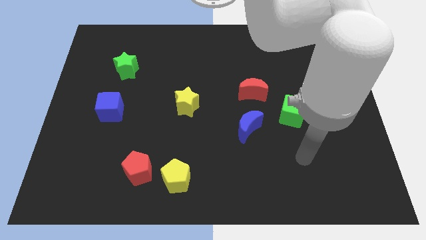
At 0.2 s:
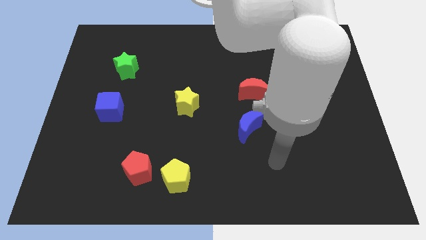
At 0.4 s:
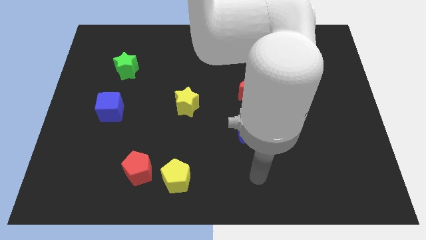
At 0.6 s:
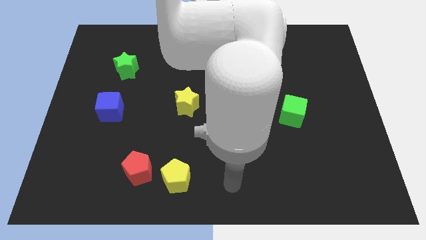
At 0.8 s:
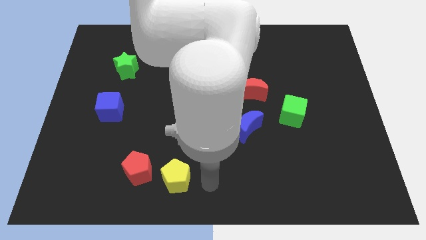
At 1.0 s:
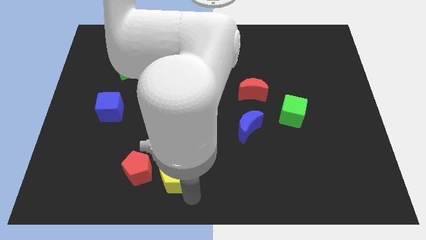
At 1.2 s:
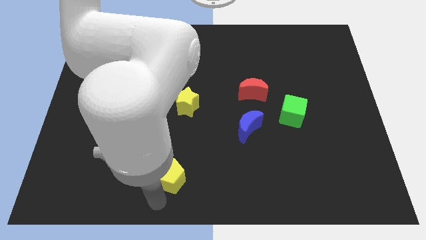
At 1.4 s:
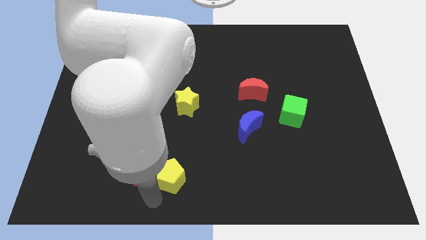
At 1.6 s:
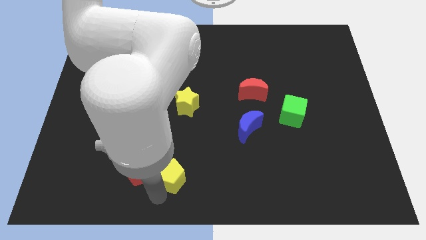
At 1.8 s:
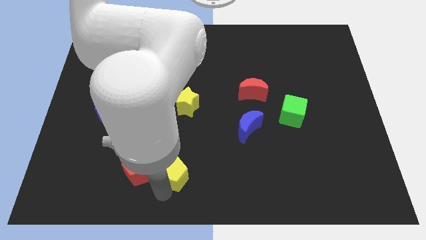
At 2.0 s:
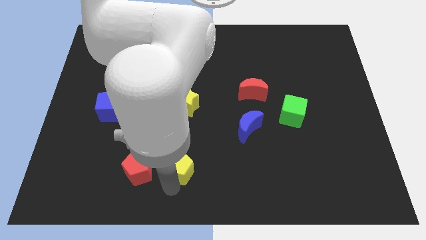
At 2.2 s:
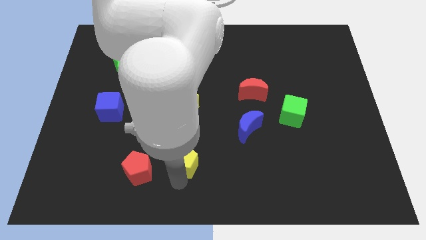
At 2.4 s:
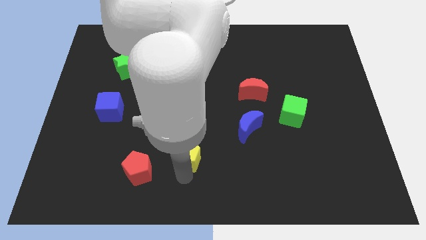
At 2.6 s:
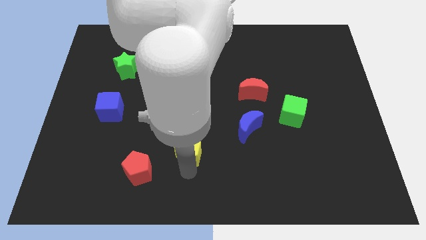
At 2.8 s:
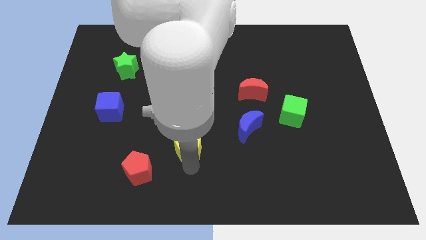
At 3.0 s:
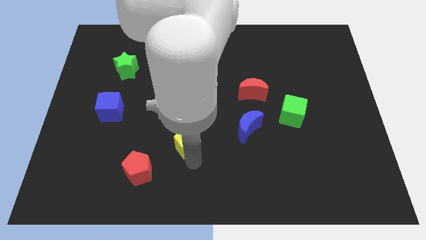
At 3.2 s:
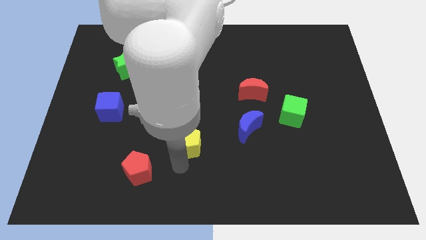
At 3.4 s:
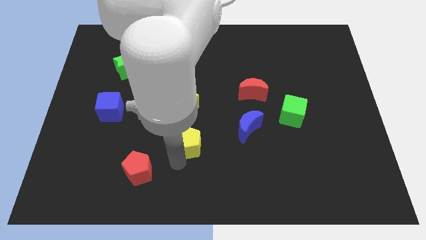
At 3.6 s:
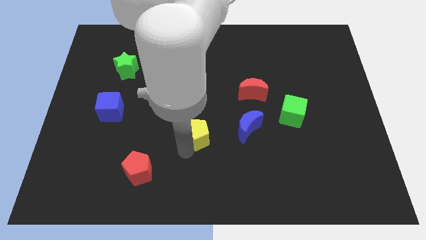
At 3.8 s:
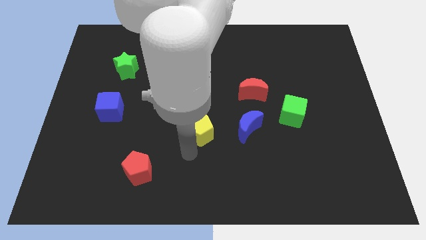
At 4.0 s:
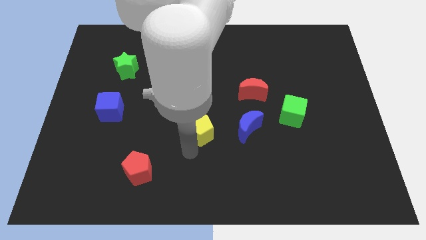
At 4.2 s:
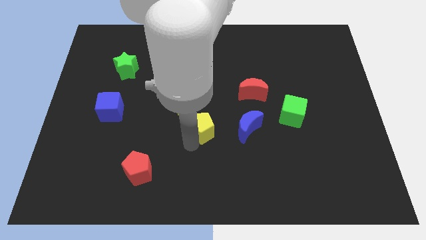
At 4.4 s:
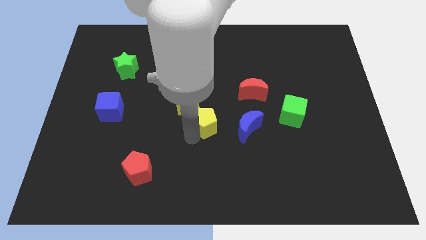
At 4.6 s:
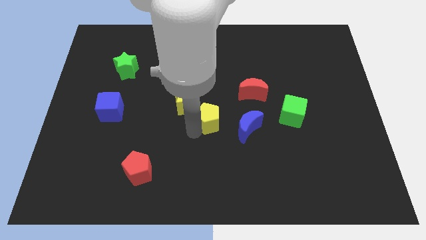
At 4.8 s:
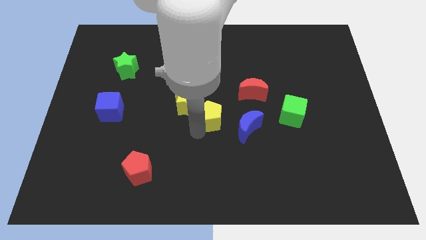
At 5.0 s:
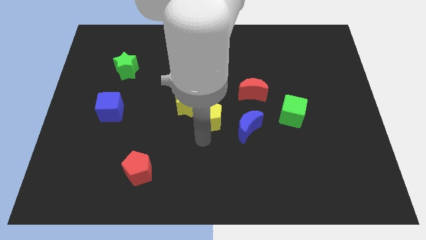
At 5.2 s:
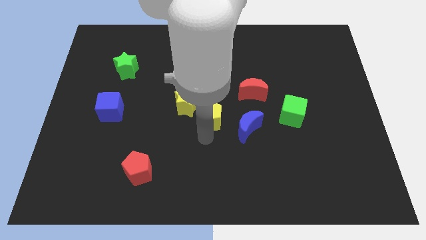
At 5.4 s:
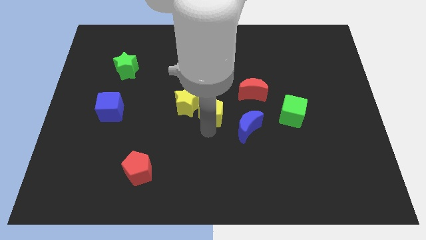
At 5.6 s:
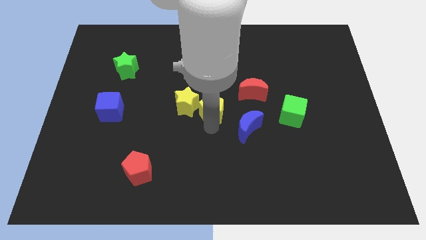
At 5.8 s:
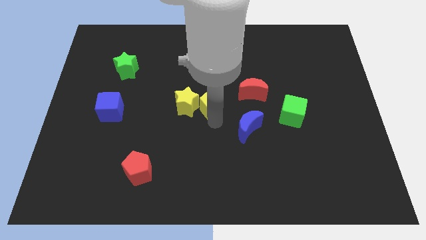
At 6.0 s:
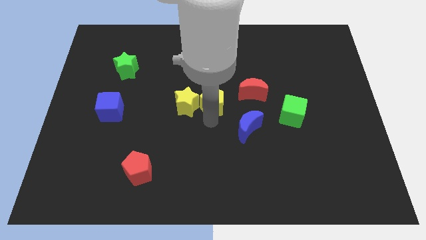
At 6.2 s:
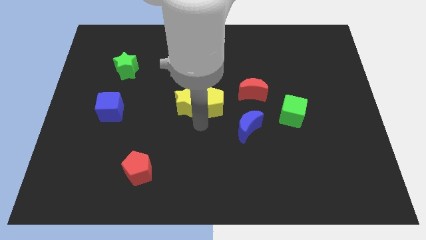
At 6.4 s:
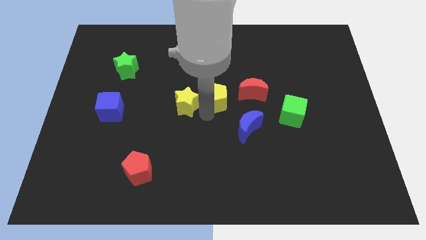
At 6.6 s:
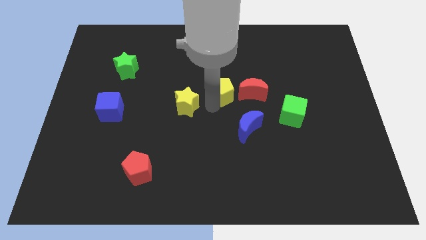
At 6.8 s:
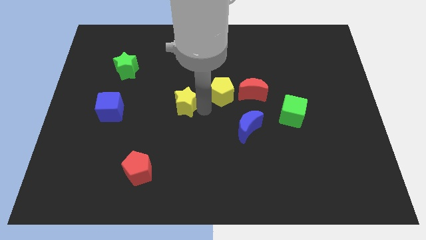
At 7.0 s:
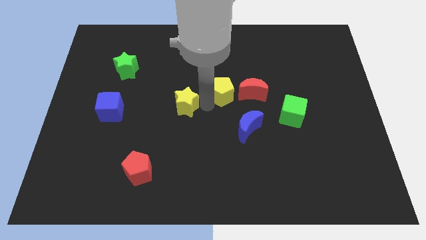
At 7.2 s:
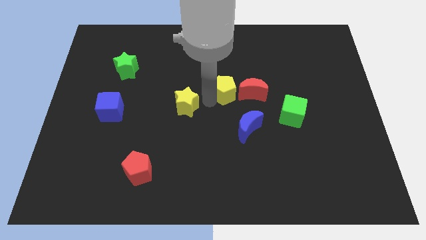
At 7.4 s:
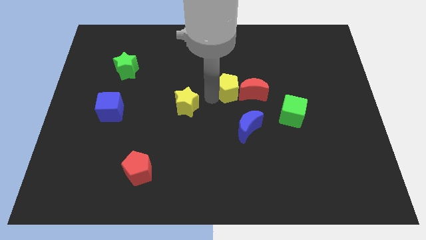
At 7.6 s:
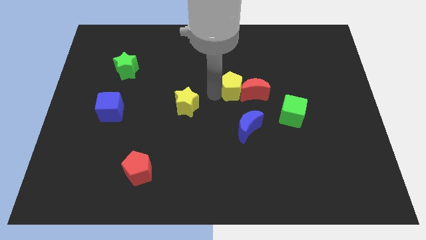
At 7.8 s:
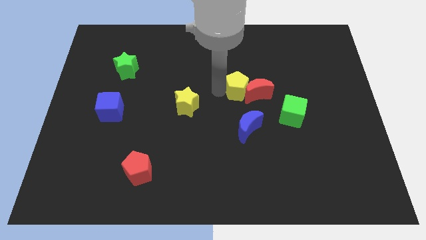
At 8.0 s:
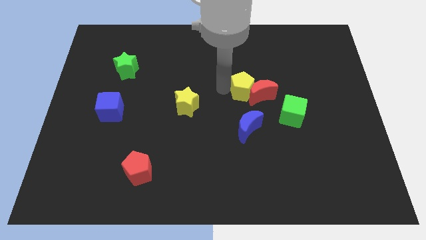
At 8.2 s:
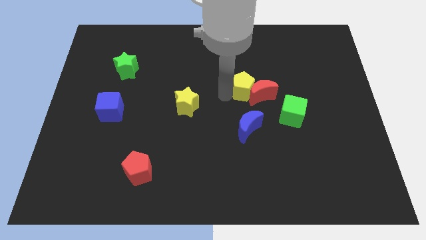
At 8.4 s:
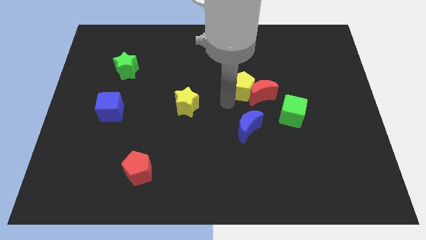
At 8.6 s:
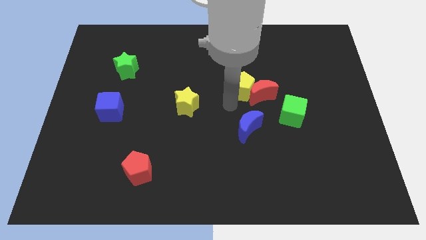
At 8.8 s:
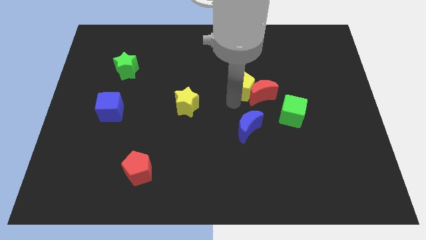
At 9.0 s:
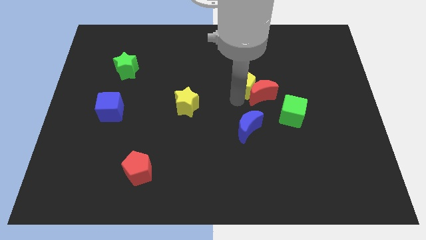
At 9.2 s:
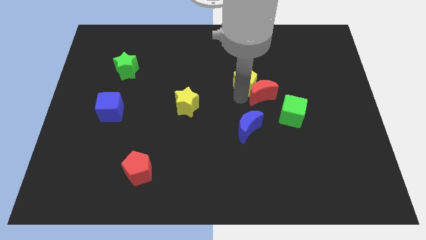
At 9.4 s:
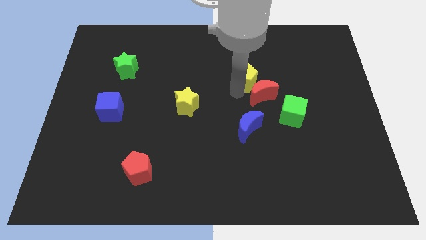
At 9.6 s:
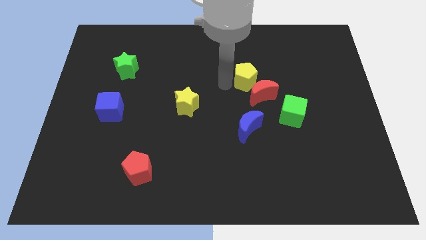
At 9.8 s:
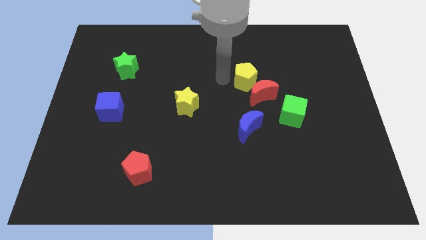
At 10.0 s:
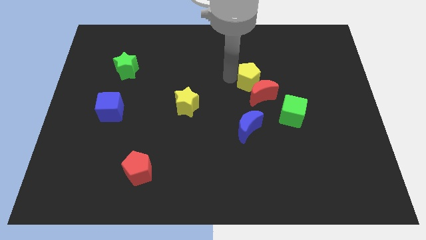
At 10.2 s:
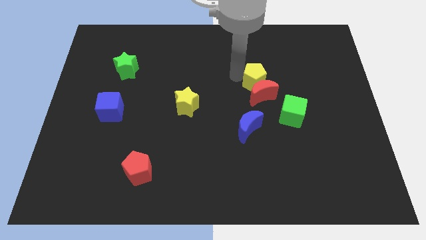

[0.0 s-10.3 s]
put the yellow pentagon to the top right of the red moon

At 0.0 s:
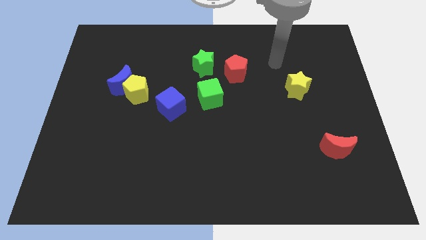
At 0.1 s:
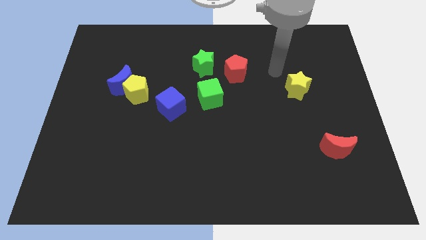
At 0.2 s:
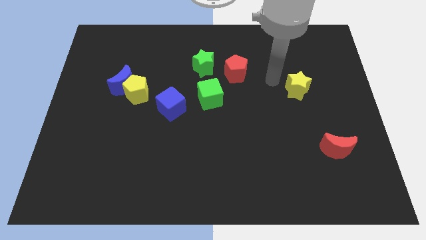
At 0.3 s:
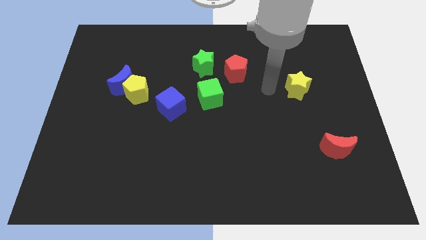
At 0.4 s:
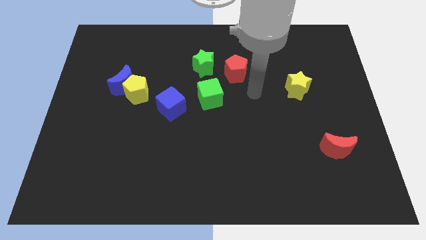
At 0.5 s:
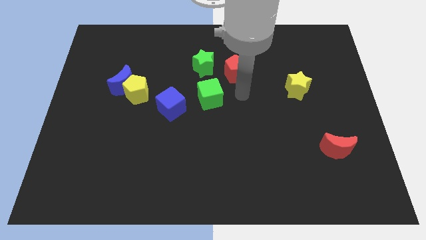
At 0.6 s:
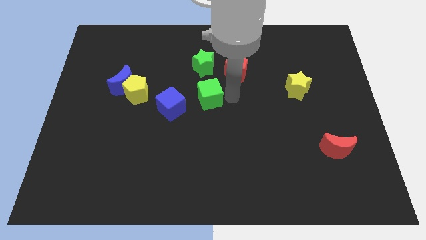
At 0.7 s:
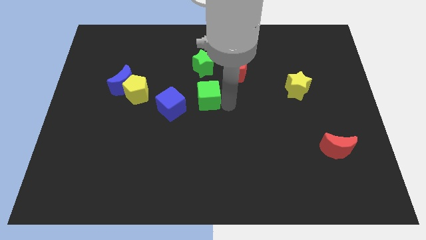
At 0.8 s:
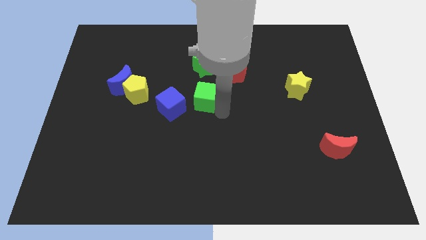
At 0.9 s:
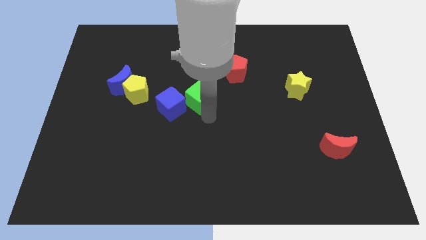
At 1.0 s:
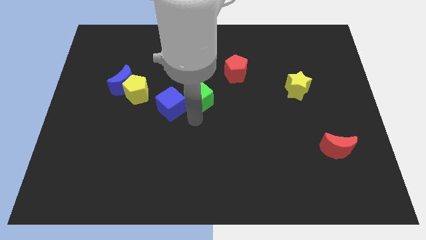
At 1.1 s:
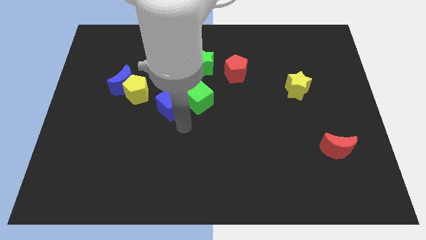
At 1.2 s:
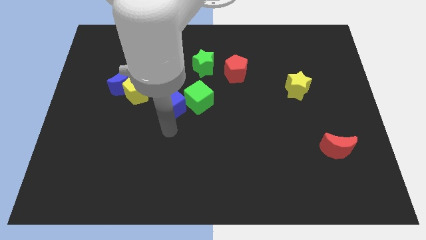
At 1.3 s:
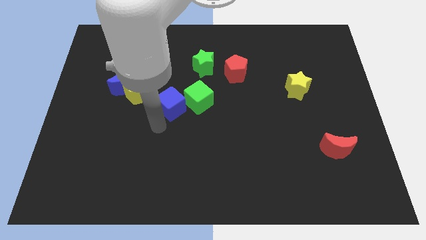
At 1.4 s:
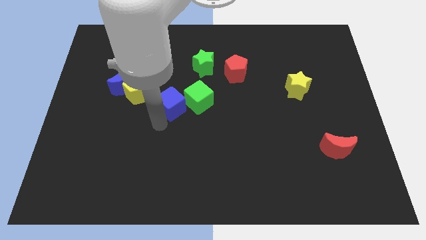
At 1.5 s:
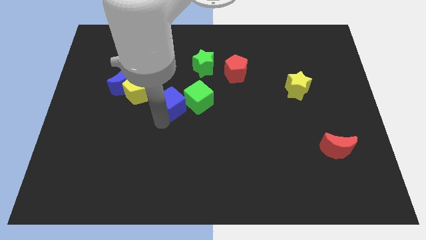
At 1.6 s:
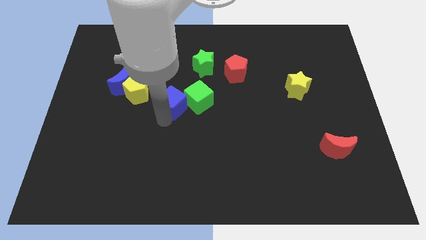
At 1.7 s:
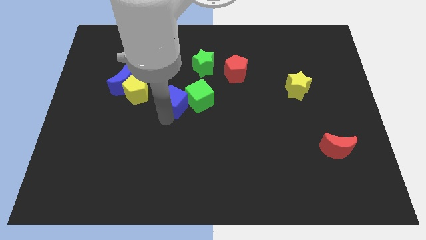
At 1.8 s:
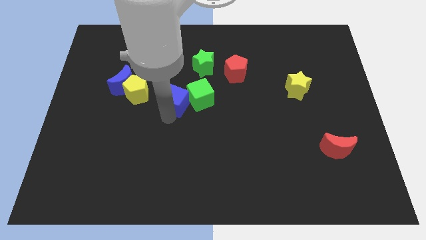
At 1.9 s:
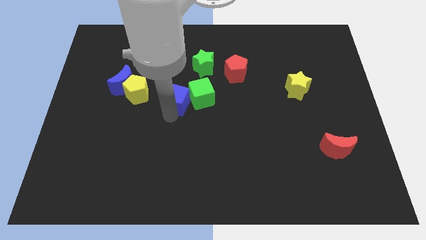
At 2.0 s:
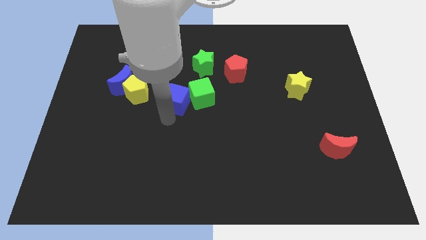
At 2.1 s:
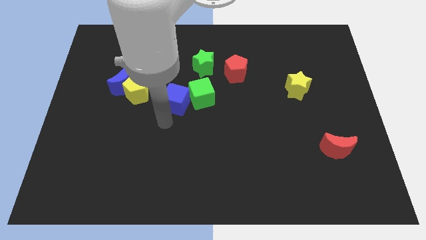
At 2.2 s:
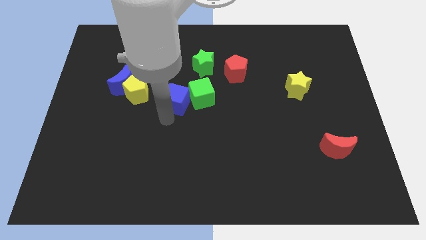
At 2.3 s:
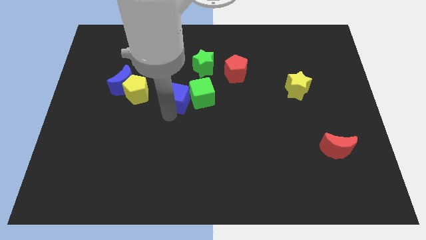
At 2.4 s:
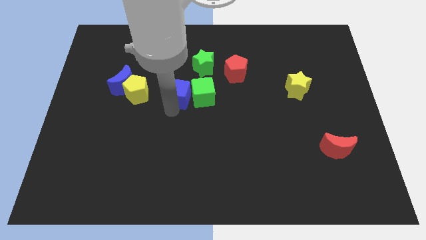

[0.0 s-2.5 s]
slide the blue cube diagonally up and to the left of the green cube
